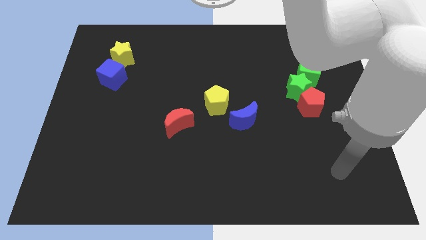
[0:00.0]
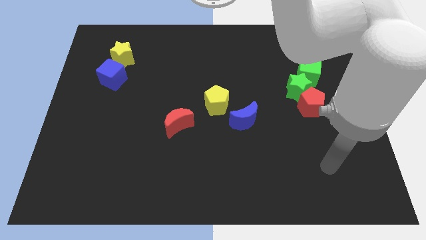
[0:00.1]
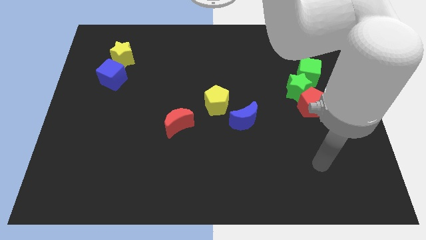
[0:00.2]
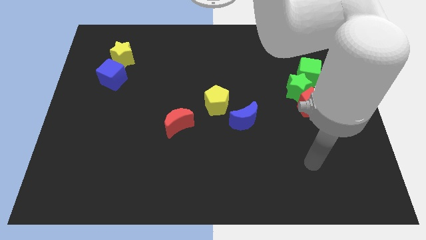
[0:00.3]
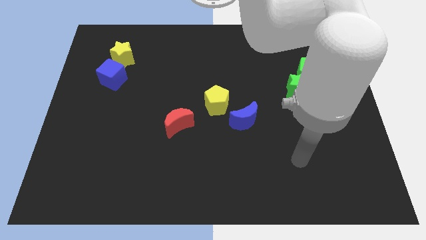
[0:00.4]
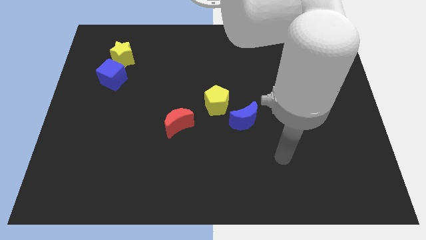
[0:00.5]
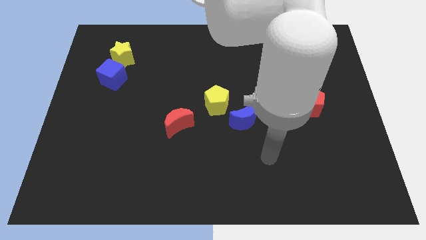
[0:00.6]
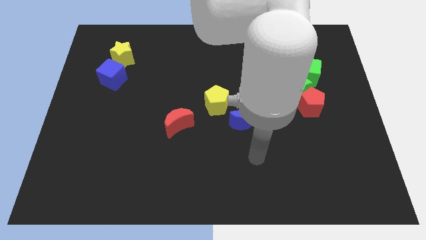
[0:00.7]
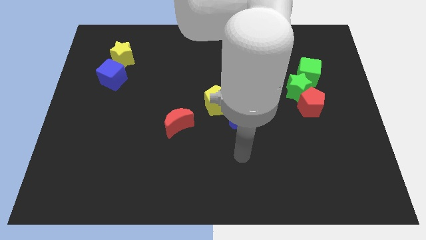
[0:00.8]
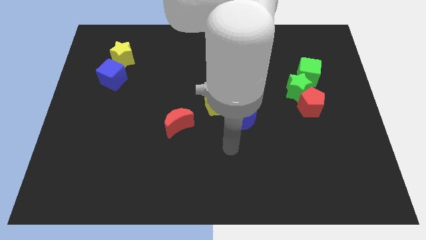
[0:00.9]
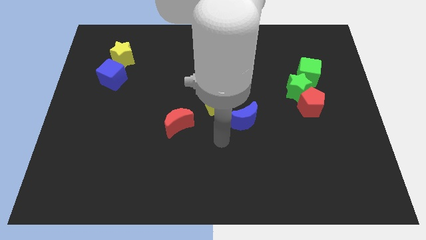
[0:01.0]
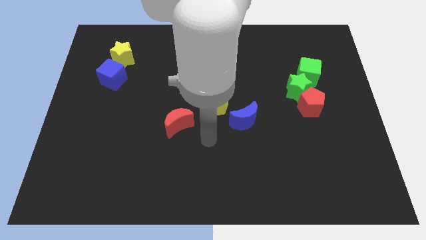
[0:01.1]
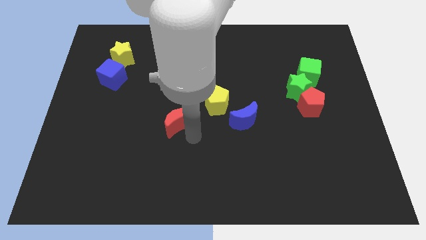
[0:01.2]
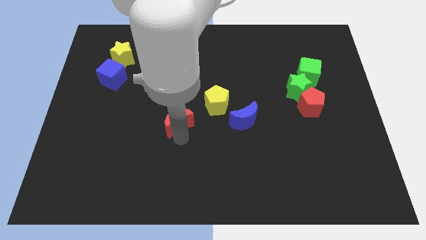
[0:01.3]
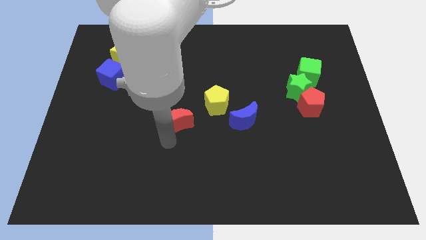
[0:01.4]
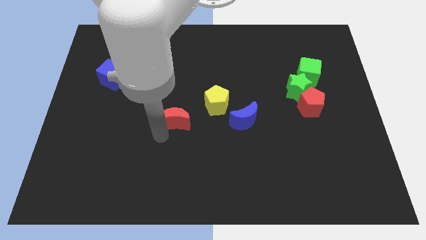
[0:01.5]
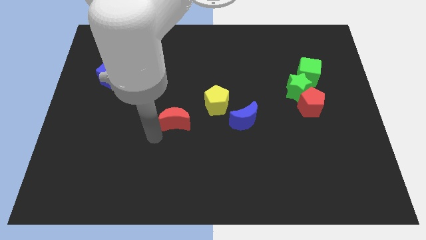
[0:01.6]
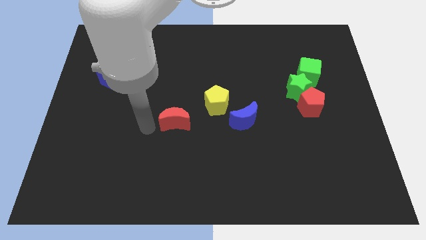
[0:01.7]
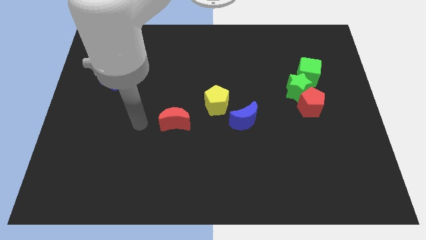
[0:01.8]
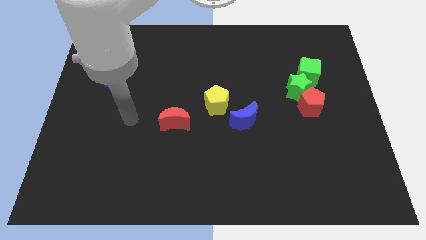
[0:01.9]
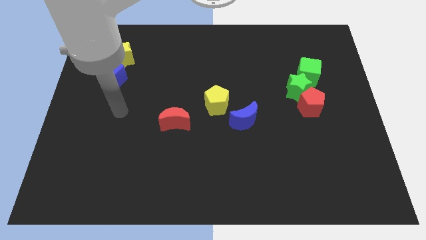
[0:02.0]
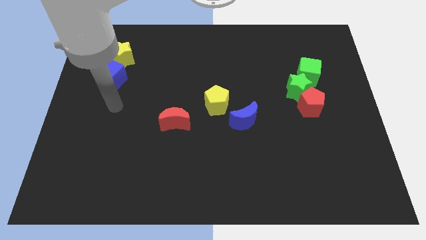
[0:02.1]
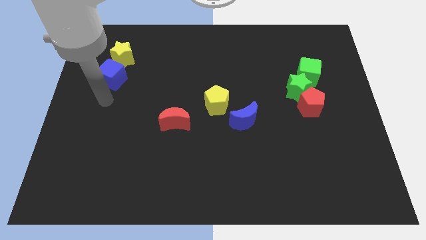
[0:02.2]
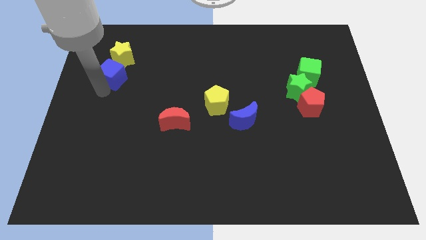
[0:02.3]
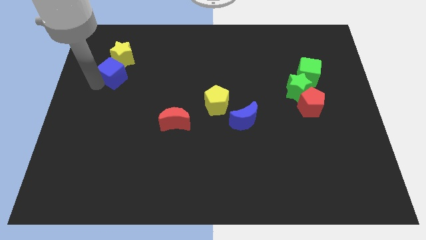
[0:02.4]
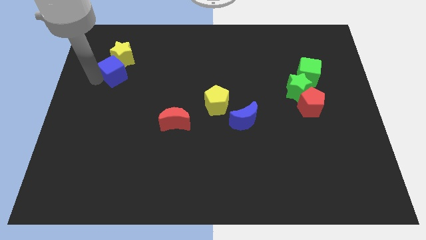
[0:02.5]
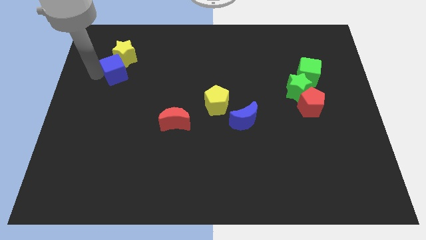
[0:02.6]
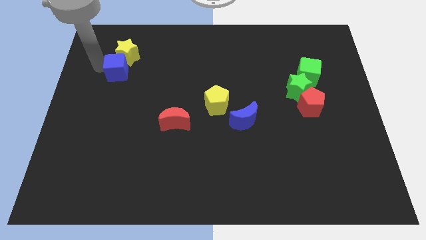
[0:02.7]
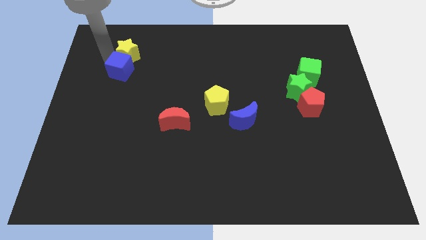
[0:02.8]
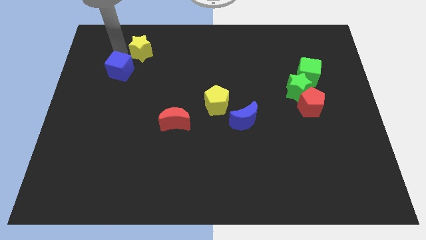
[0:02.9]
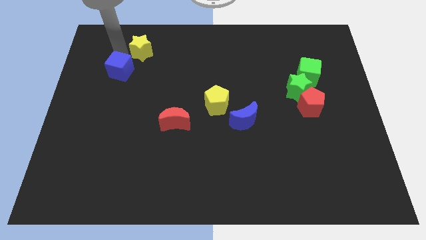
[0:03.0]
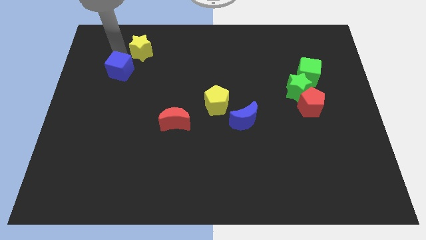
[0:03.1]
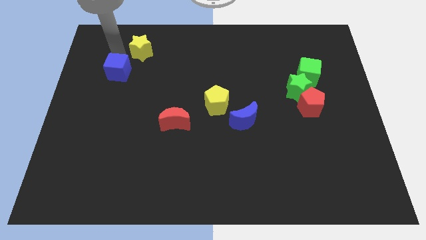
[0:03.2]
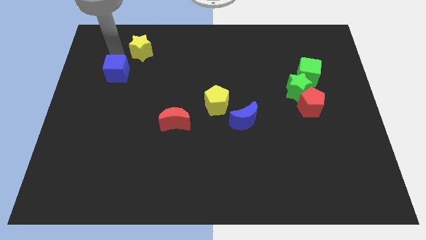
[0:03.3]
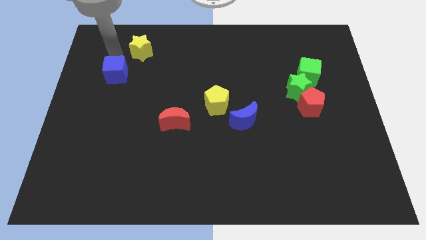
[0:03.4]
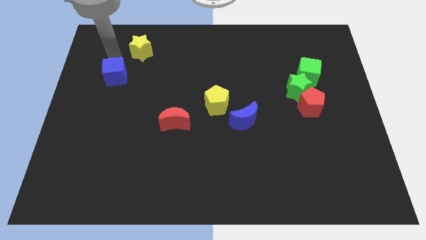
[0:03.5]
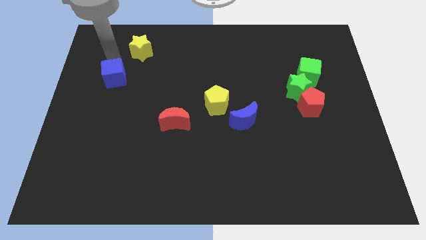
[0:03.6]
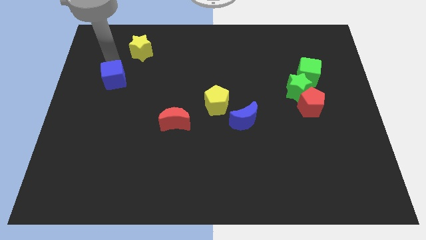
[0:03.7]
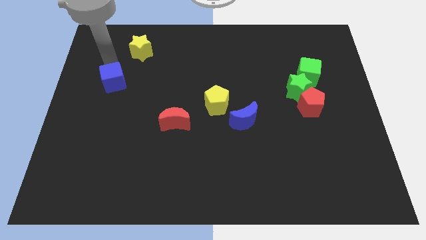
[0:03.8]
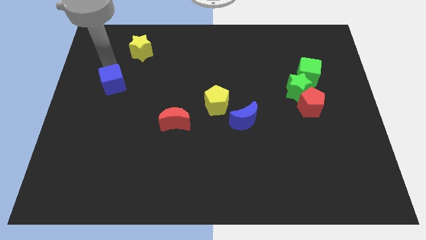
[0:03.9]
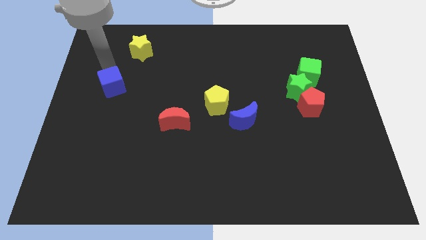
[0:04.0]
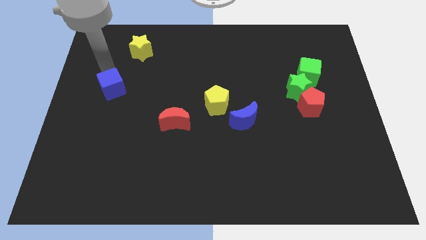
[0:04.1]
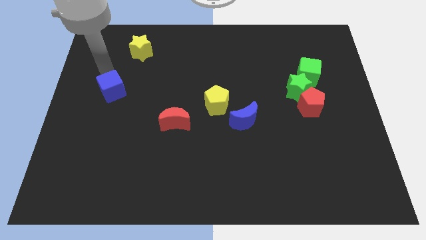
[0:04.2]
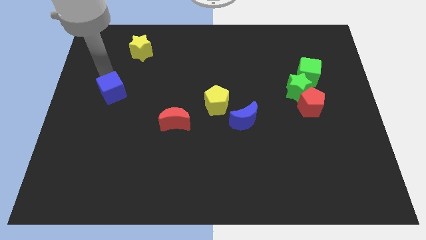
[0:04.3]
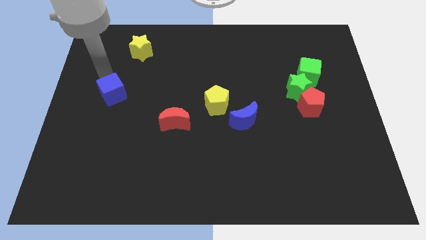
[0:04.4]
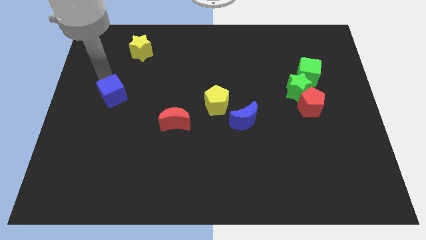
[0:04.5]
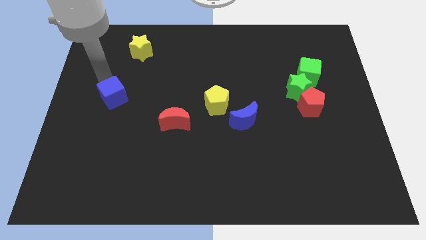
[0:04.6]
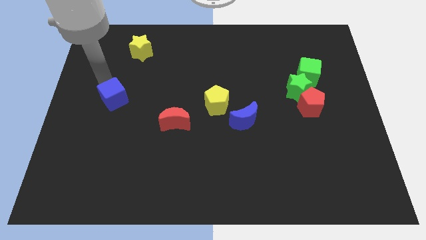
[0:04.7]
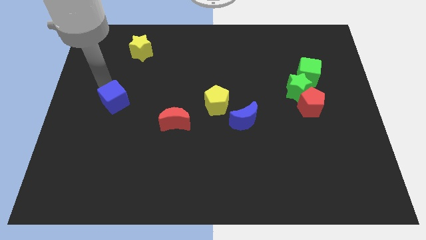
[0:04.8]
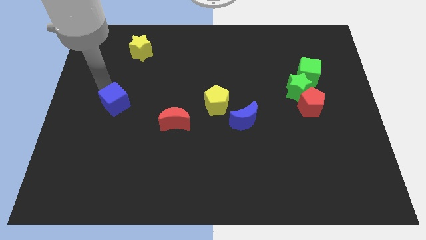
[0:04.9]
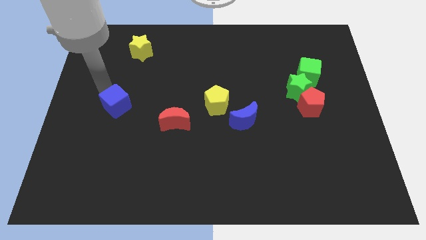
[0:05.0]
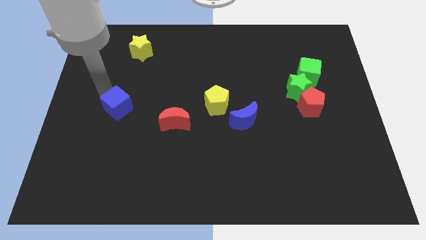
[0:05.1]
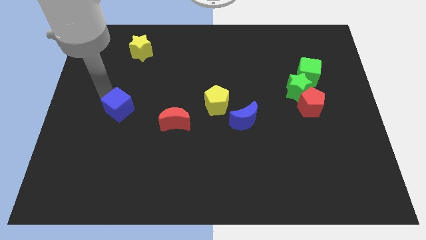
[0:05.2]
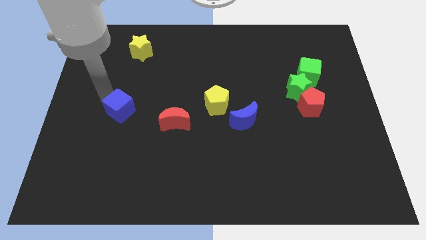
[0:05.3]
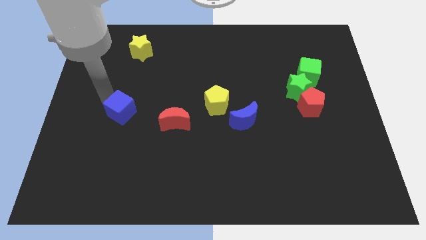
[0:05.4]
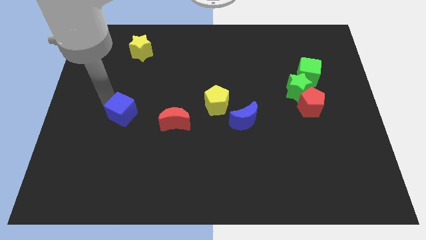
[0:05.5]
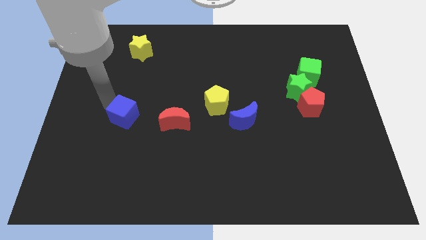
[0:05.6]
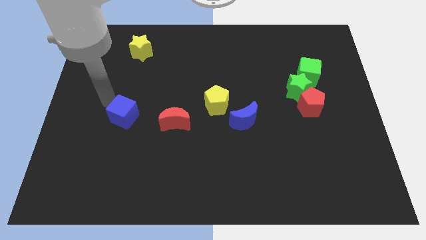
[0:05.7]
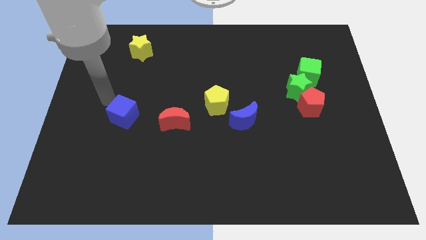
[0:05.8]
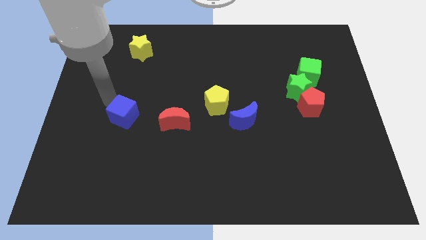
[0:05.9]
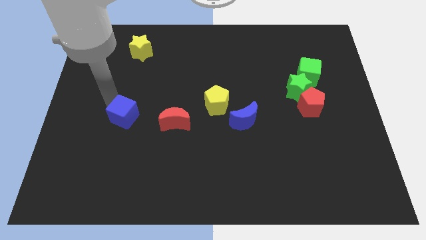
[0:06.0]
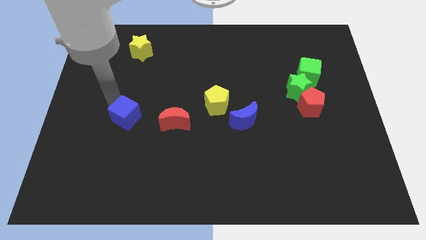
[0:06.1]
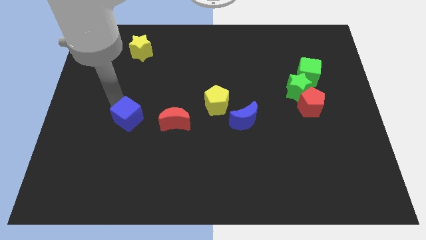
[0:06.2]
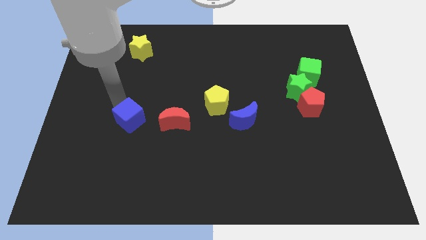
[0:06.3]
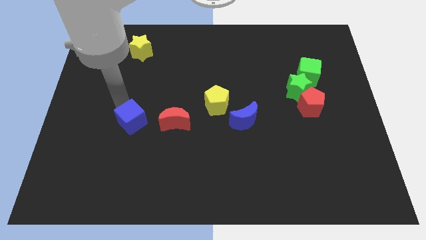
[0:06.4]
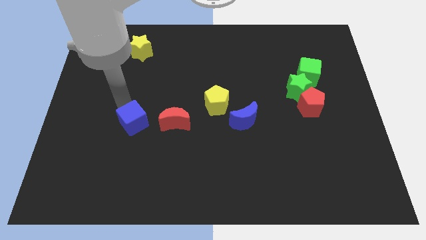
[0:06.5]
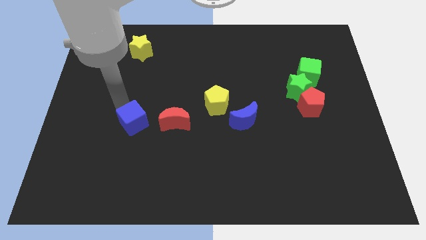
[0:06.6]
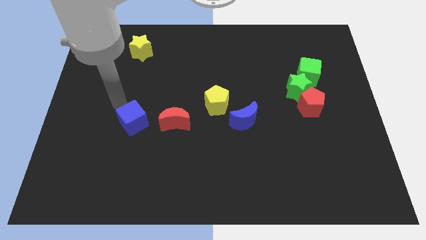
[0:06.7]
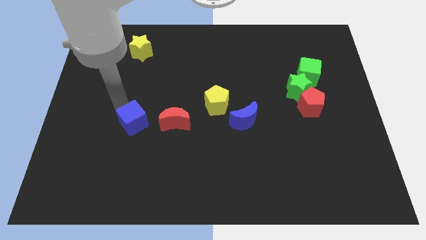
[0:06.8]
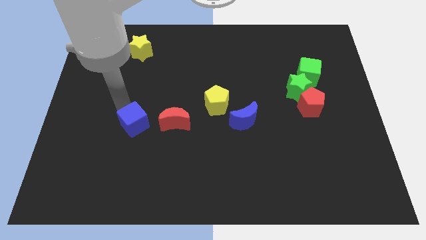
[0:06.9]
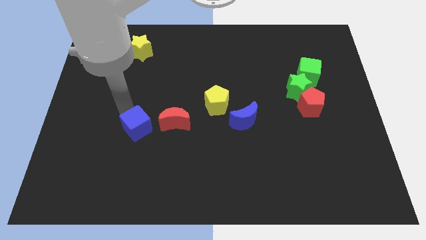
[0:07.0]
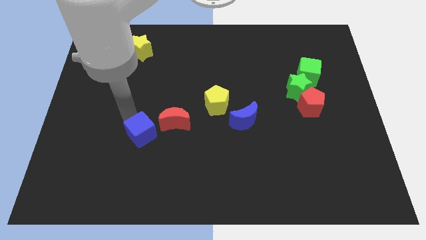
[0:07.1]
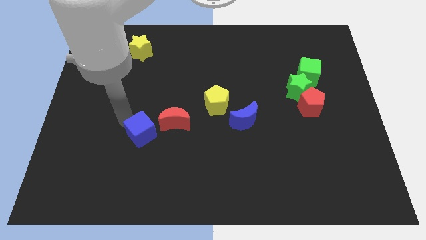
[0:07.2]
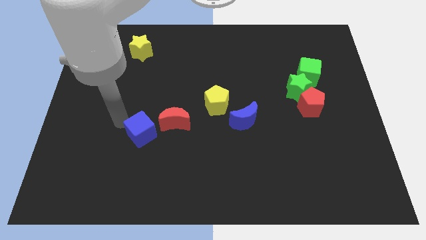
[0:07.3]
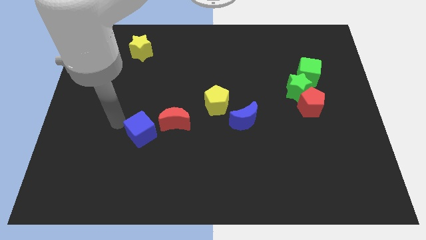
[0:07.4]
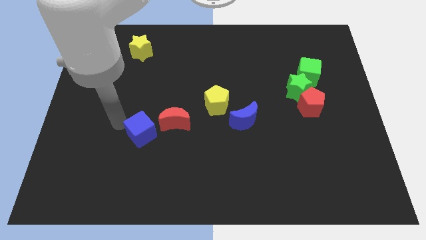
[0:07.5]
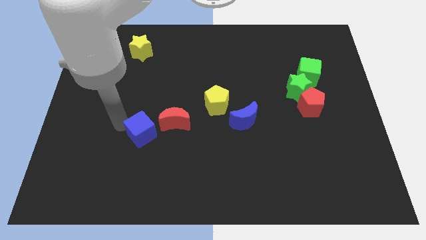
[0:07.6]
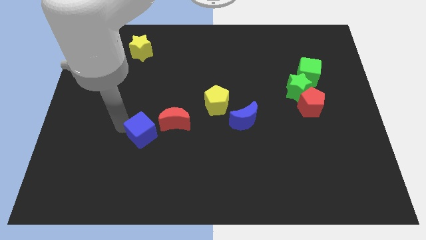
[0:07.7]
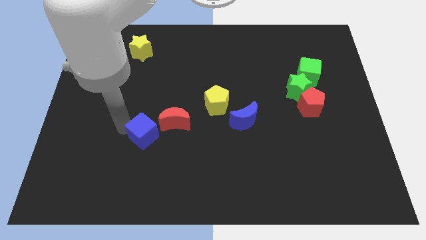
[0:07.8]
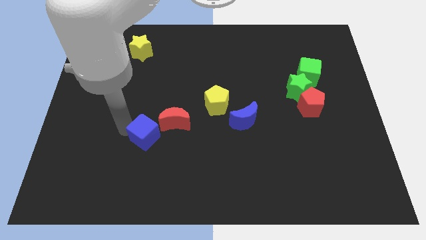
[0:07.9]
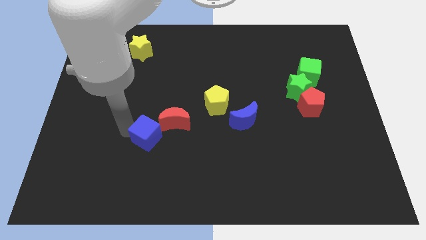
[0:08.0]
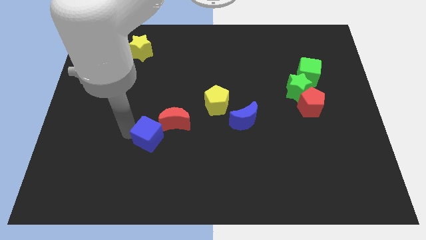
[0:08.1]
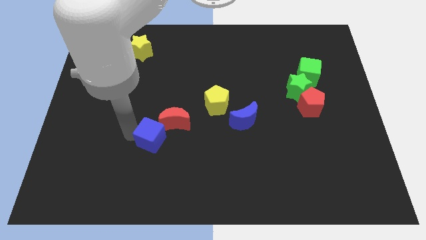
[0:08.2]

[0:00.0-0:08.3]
push the blue cube down and then right
